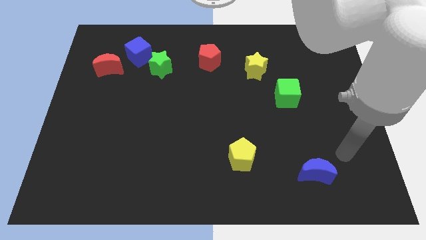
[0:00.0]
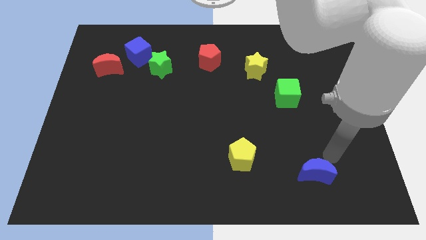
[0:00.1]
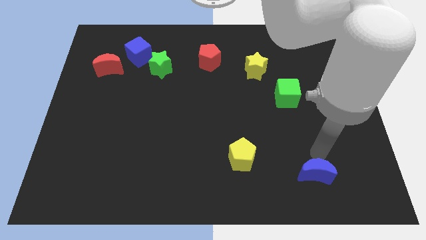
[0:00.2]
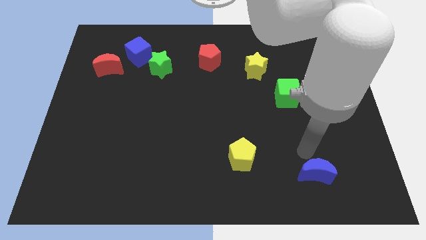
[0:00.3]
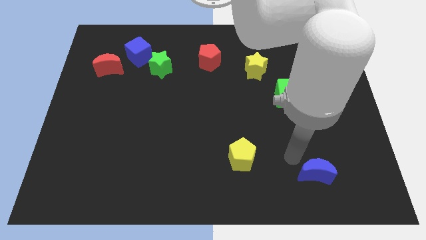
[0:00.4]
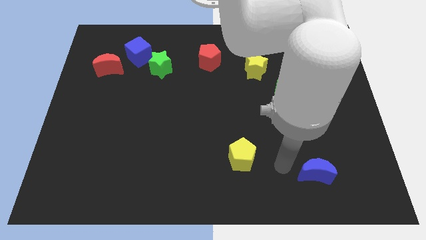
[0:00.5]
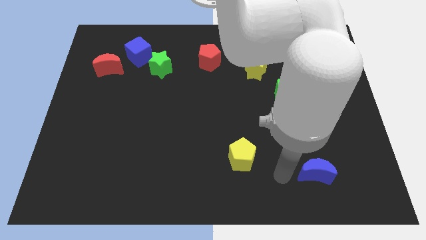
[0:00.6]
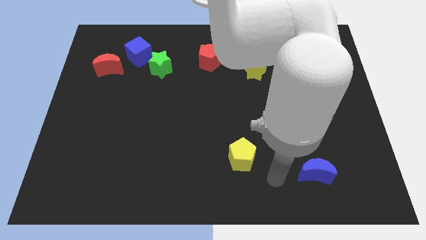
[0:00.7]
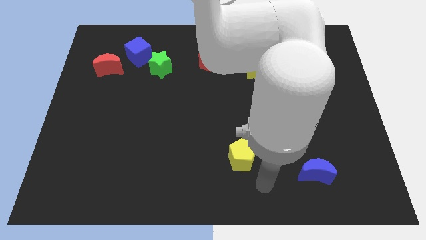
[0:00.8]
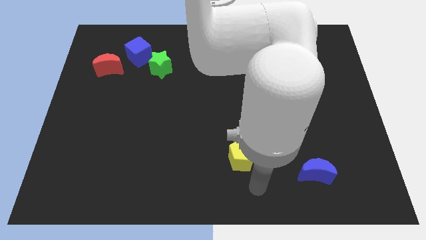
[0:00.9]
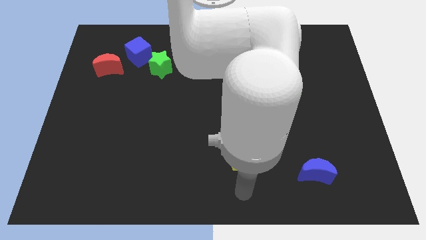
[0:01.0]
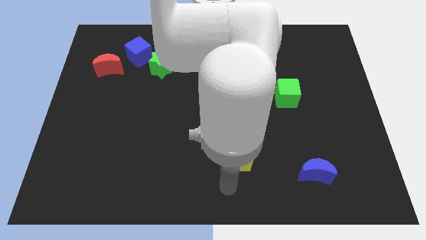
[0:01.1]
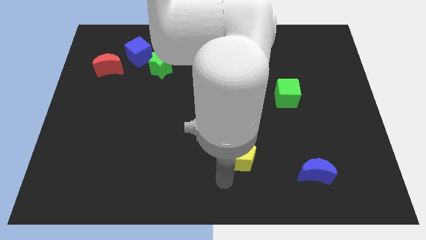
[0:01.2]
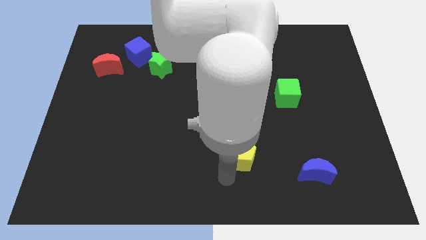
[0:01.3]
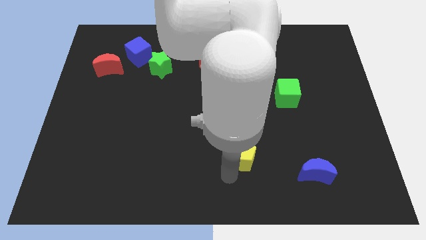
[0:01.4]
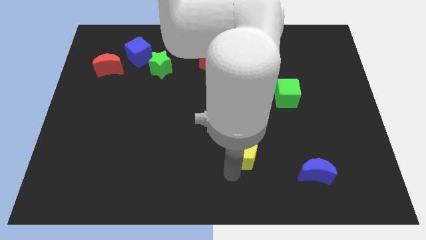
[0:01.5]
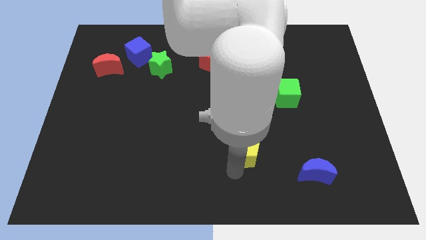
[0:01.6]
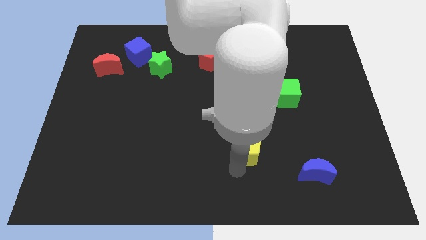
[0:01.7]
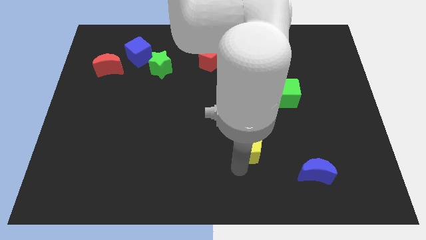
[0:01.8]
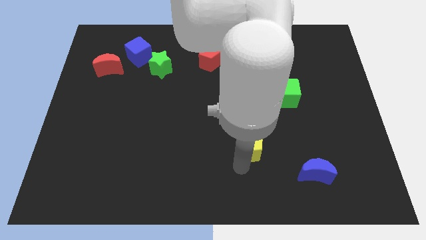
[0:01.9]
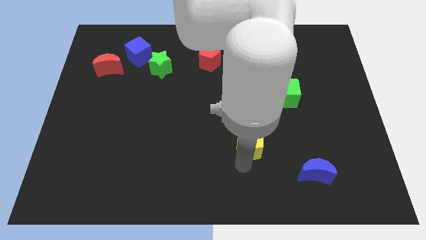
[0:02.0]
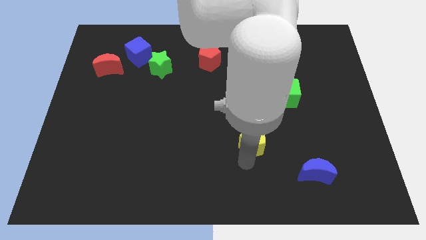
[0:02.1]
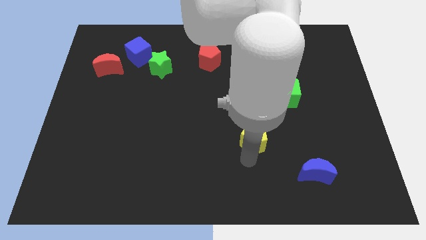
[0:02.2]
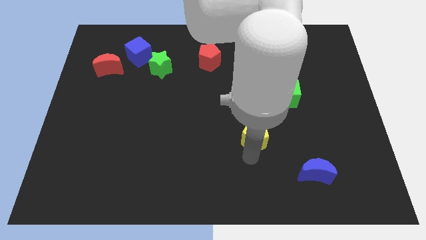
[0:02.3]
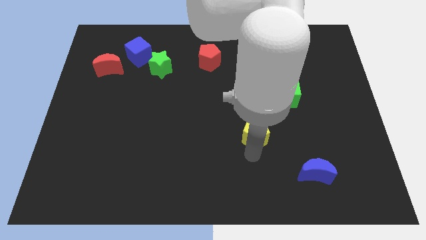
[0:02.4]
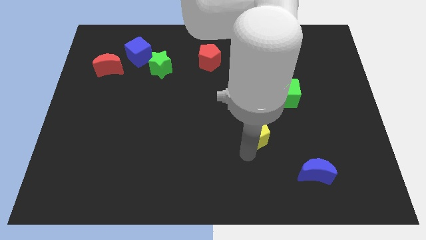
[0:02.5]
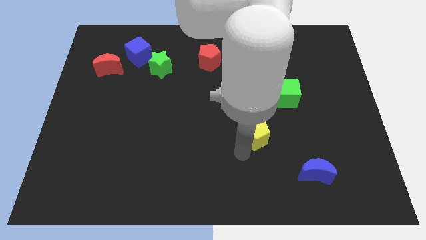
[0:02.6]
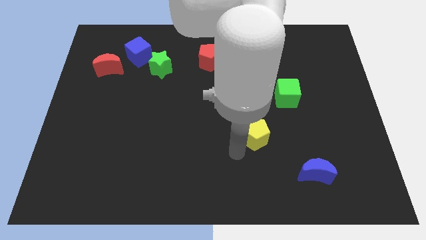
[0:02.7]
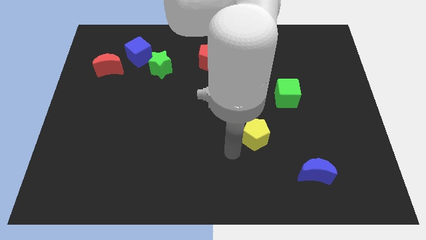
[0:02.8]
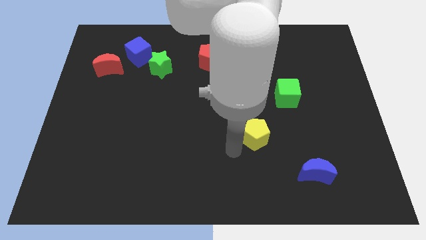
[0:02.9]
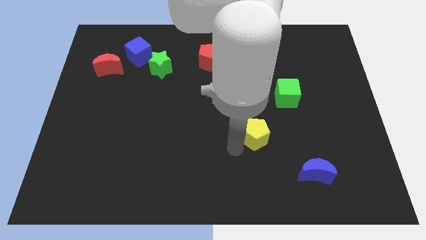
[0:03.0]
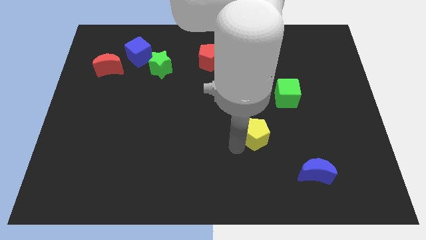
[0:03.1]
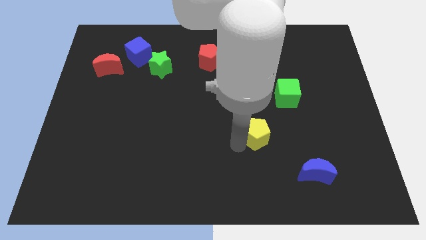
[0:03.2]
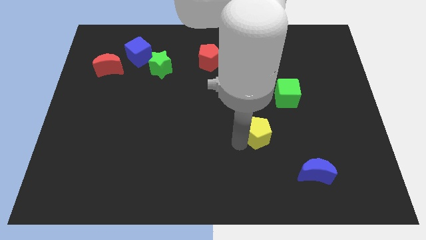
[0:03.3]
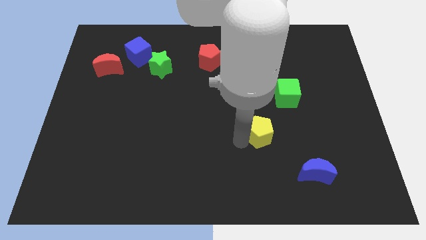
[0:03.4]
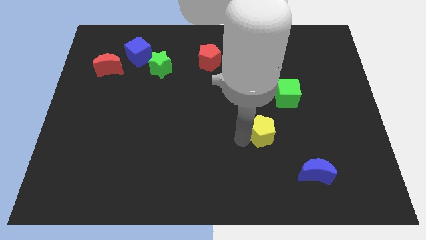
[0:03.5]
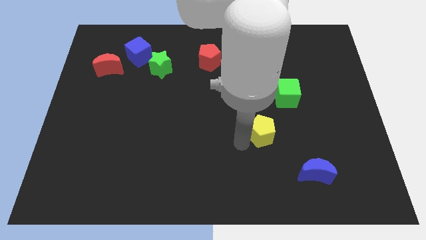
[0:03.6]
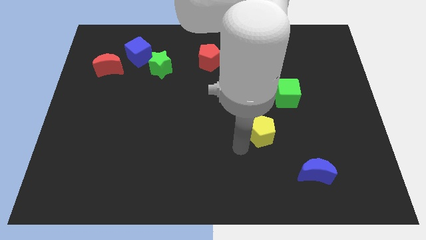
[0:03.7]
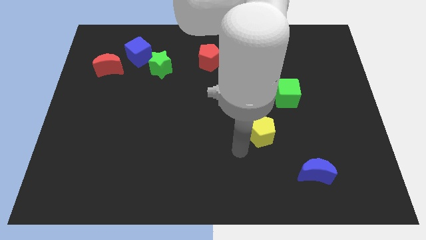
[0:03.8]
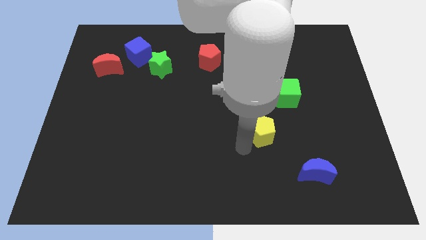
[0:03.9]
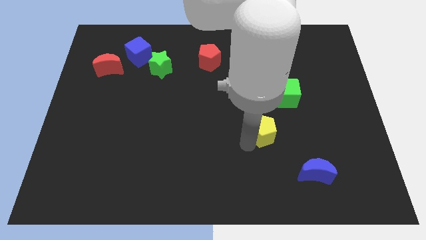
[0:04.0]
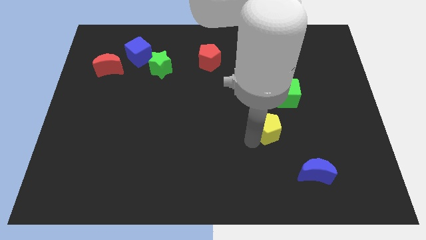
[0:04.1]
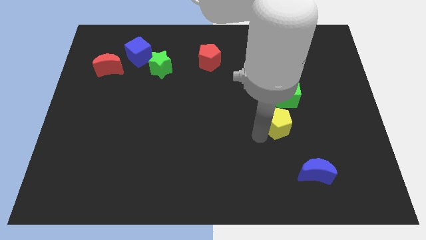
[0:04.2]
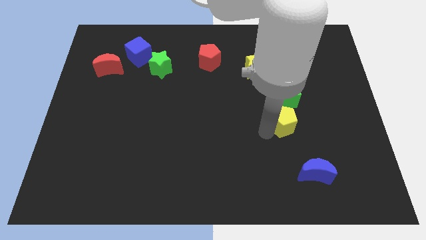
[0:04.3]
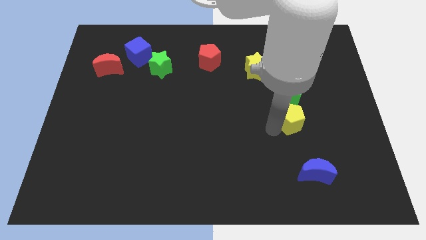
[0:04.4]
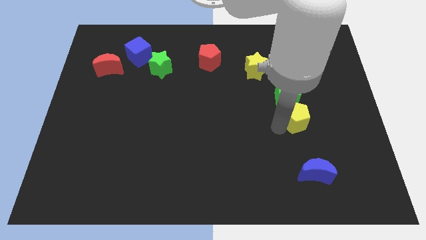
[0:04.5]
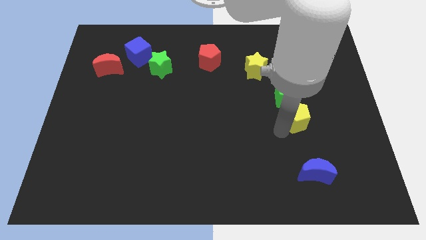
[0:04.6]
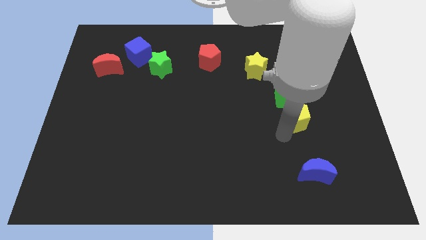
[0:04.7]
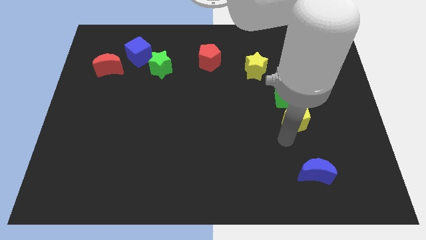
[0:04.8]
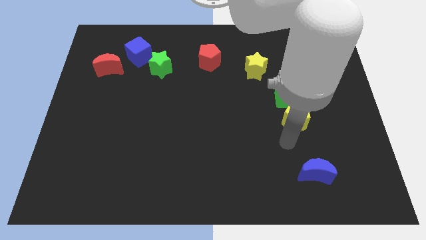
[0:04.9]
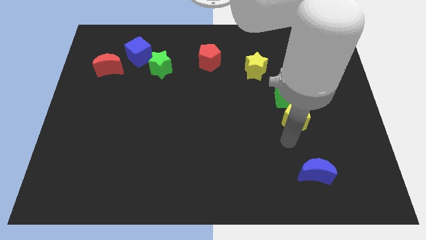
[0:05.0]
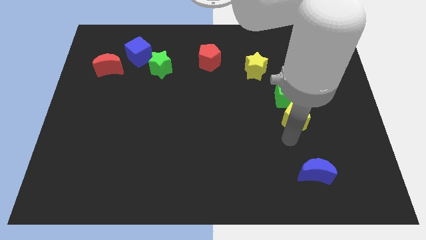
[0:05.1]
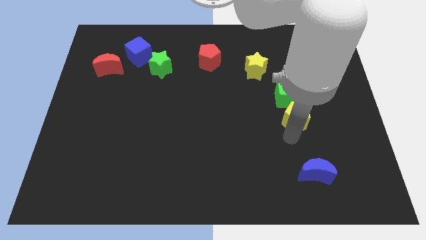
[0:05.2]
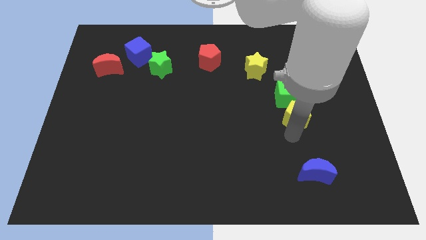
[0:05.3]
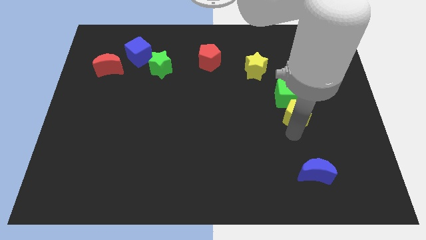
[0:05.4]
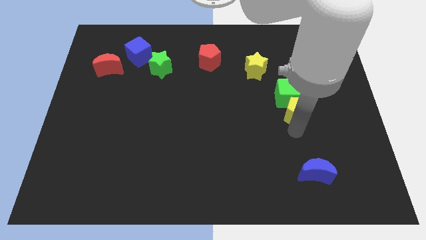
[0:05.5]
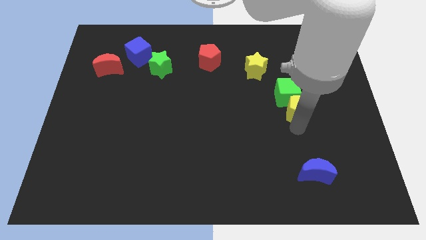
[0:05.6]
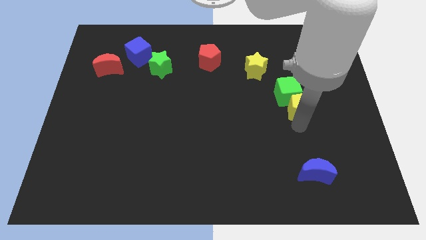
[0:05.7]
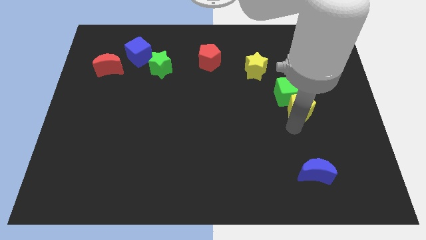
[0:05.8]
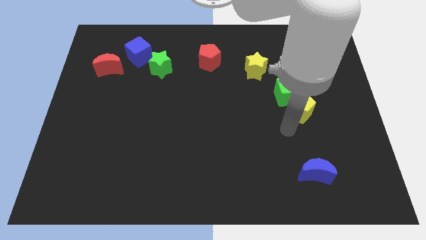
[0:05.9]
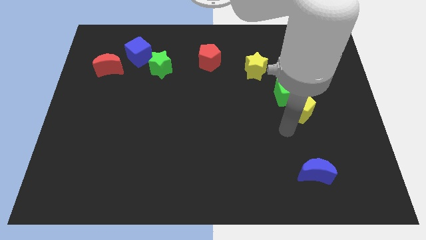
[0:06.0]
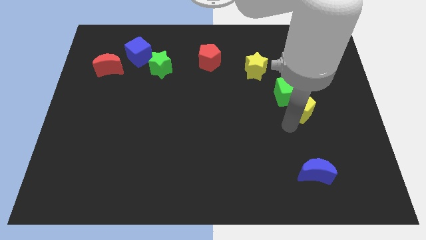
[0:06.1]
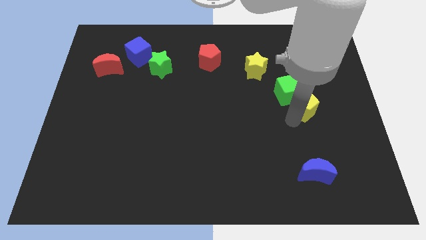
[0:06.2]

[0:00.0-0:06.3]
move the yellow pentagon upwards and right

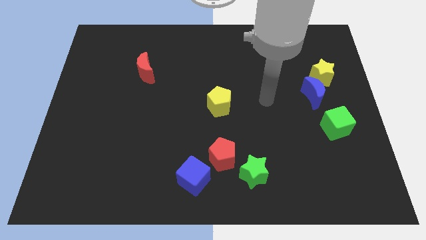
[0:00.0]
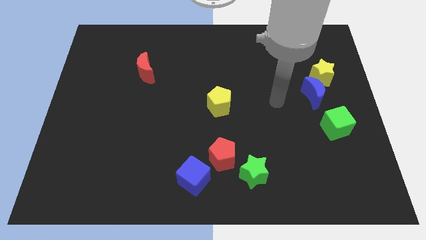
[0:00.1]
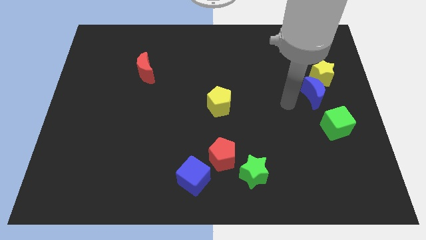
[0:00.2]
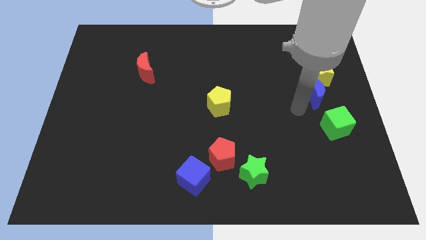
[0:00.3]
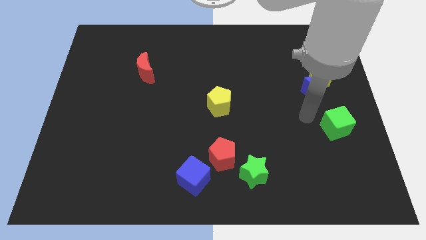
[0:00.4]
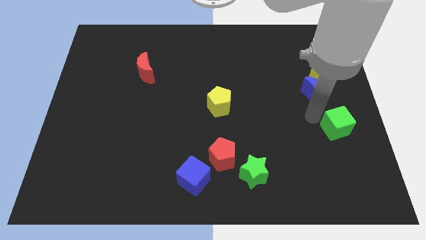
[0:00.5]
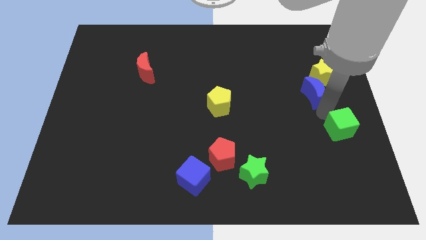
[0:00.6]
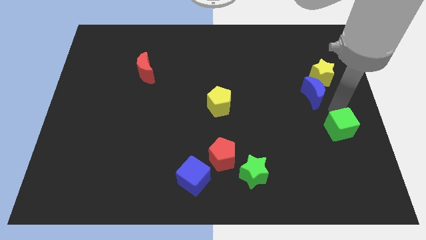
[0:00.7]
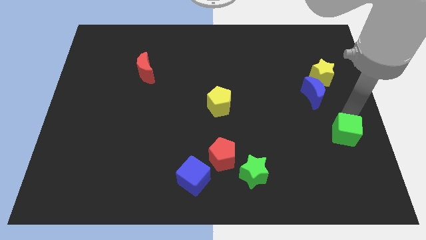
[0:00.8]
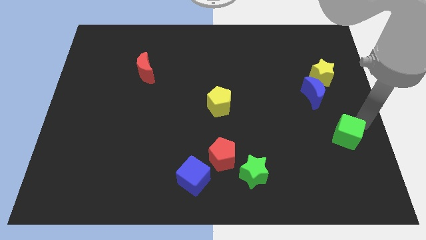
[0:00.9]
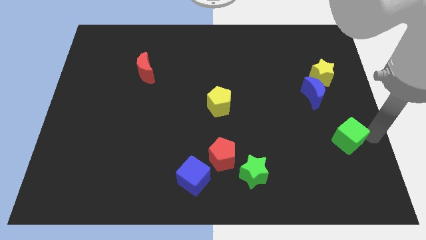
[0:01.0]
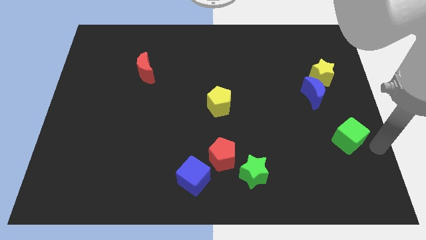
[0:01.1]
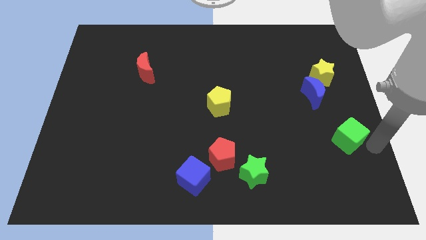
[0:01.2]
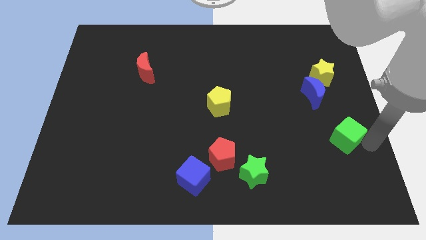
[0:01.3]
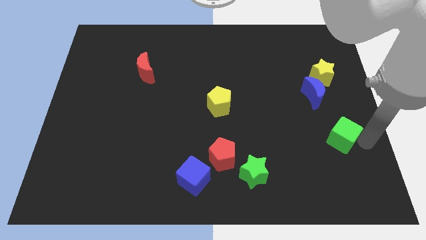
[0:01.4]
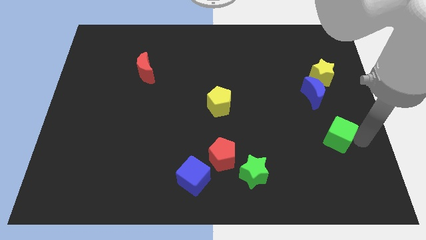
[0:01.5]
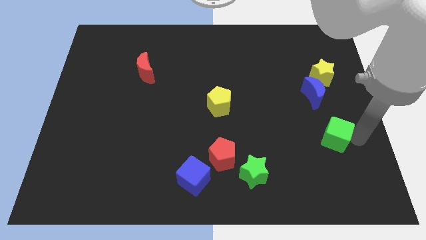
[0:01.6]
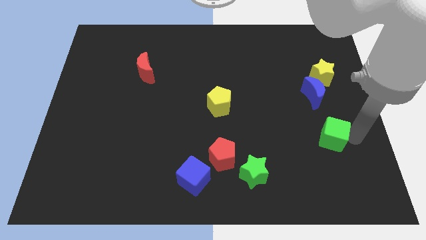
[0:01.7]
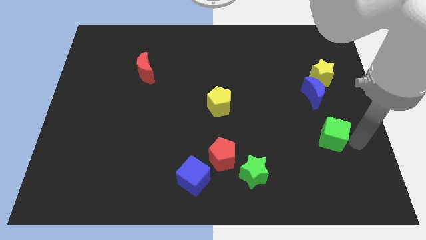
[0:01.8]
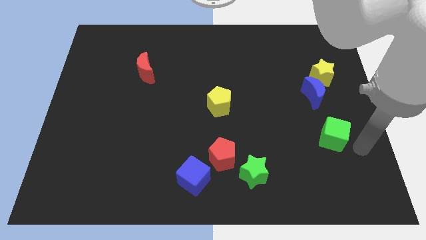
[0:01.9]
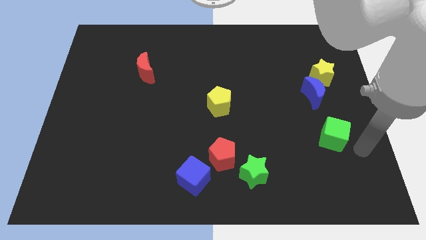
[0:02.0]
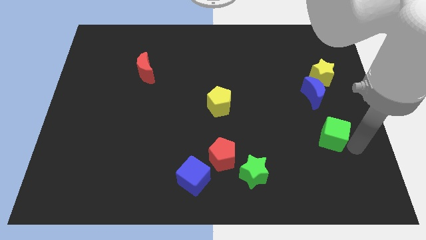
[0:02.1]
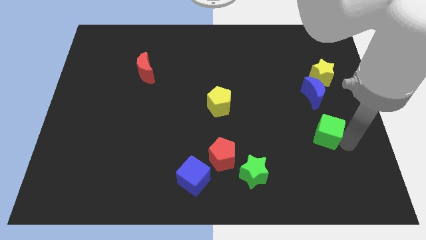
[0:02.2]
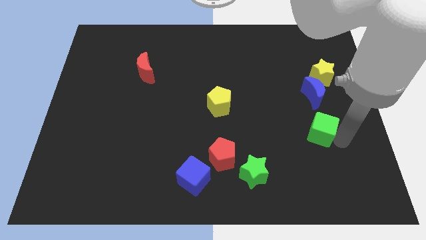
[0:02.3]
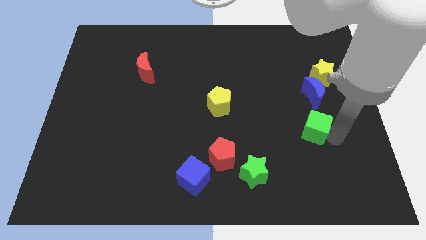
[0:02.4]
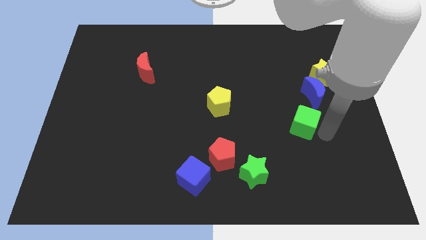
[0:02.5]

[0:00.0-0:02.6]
push the green cube left slightly
